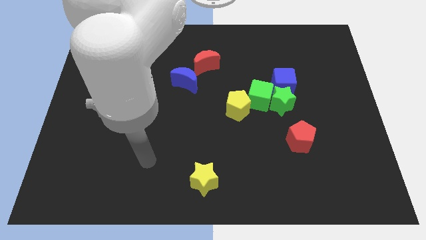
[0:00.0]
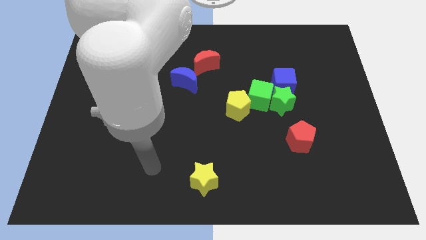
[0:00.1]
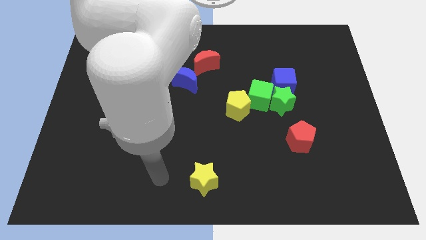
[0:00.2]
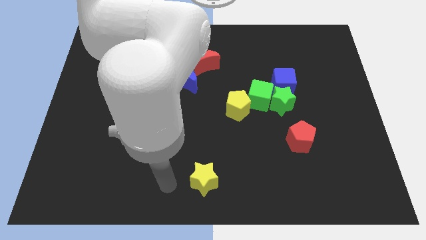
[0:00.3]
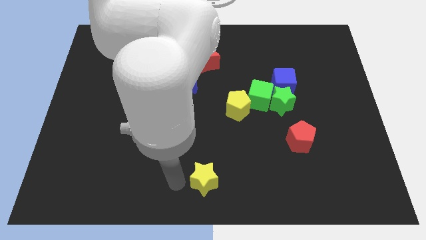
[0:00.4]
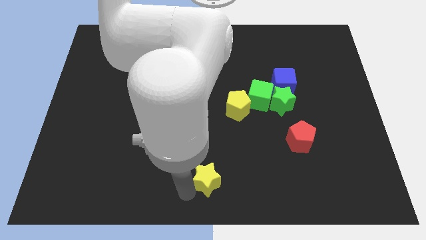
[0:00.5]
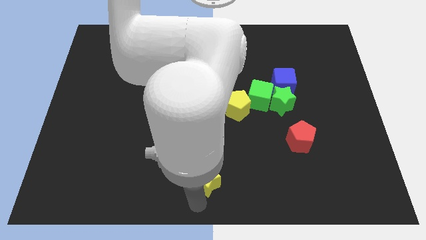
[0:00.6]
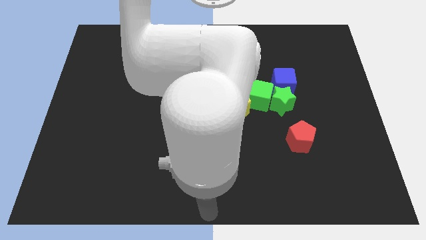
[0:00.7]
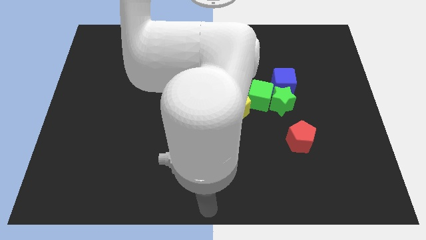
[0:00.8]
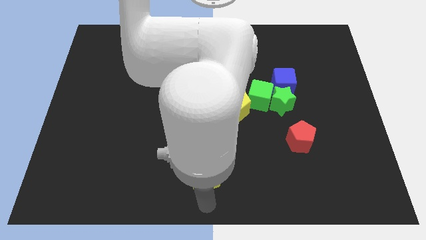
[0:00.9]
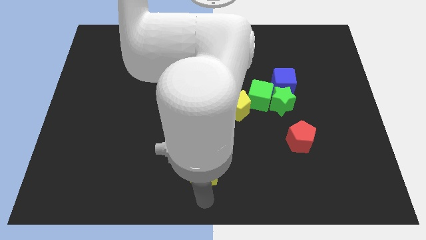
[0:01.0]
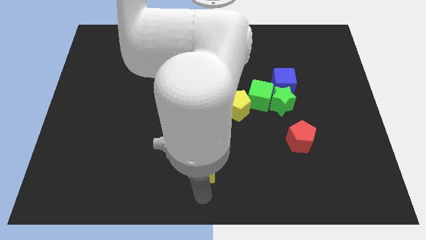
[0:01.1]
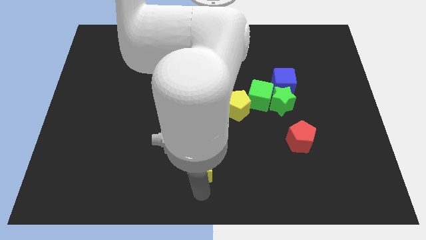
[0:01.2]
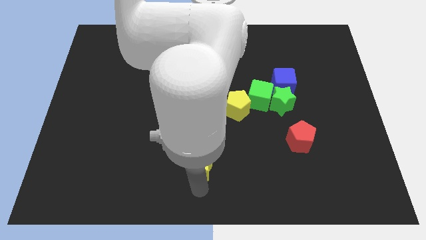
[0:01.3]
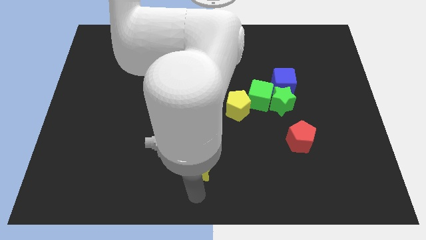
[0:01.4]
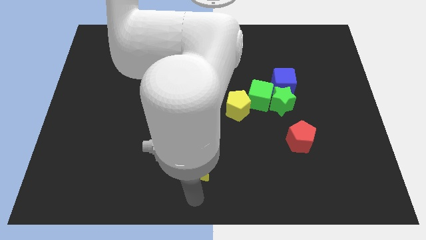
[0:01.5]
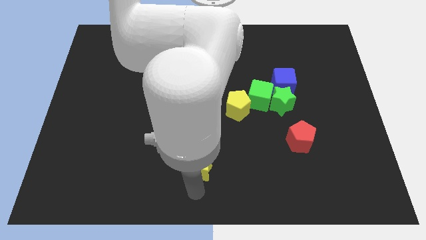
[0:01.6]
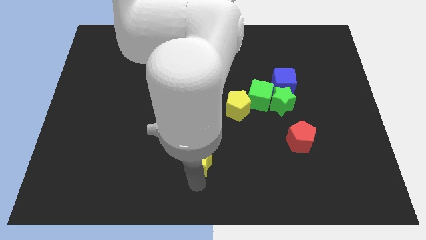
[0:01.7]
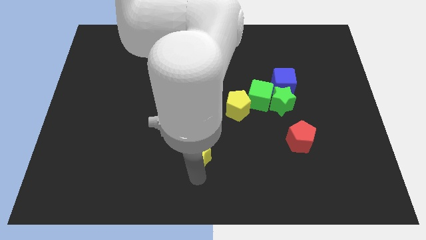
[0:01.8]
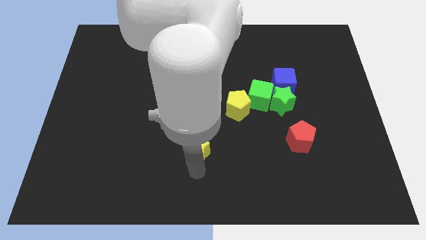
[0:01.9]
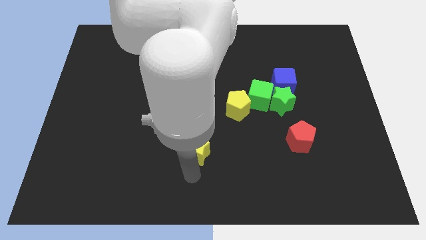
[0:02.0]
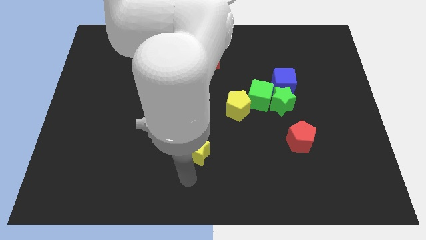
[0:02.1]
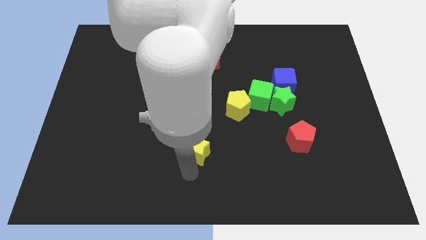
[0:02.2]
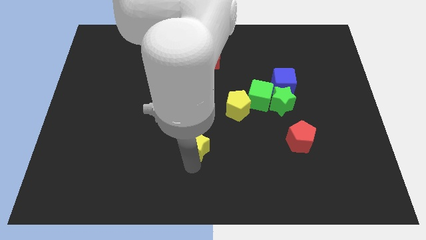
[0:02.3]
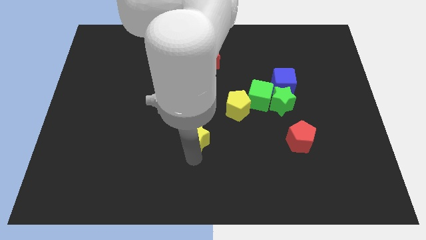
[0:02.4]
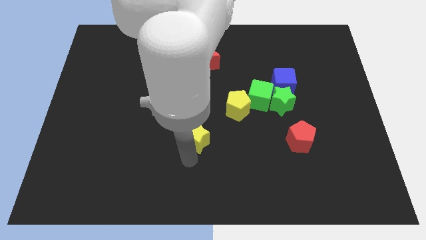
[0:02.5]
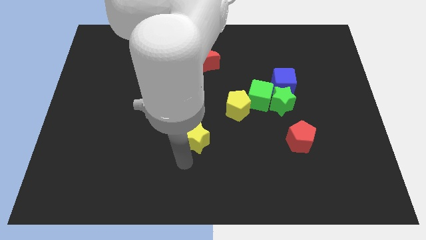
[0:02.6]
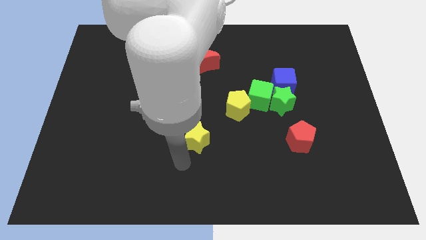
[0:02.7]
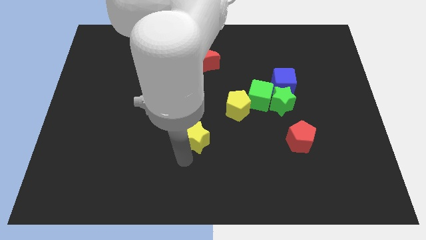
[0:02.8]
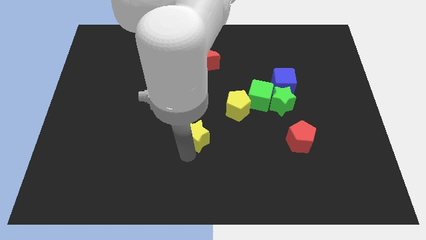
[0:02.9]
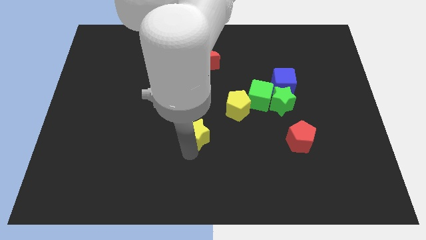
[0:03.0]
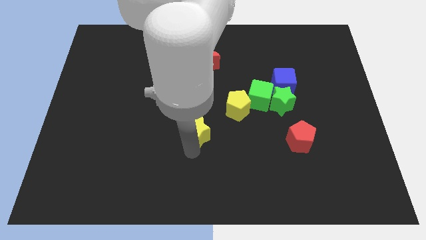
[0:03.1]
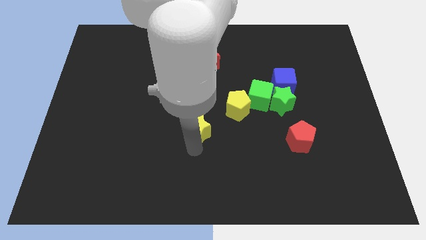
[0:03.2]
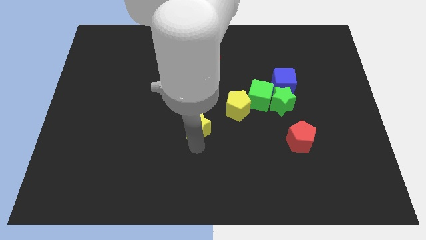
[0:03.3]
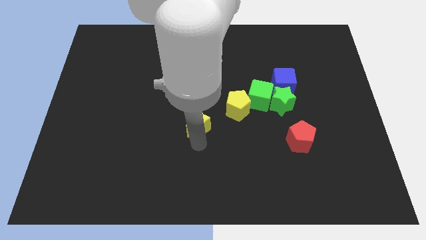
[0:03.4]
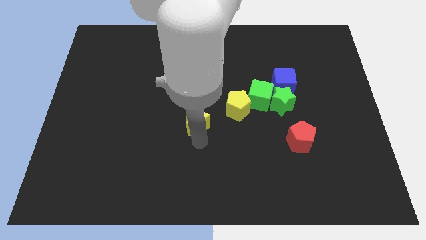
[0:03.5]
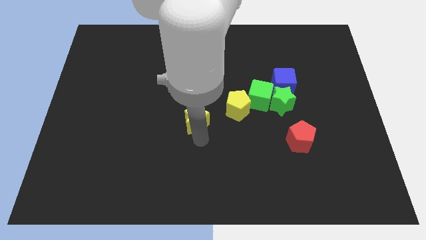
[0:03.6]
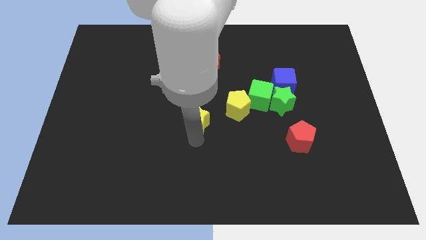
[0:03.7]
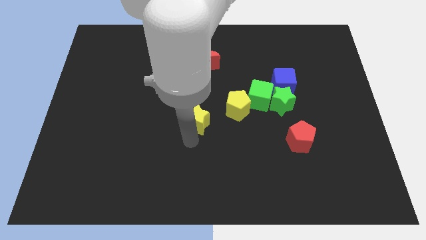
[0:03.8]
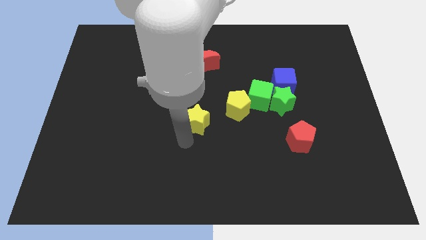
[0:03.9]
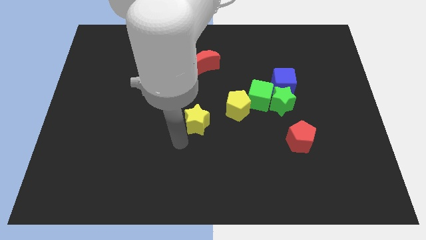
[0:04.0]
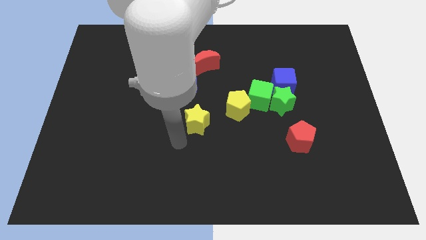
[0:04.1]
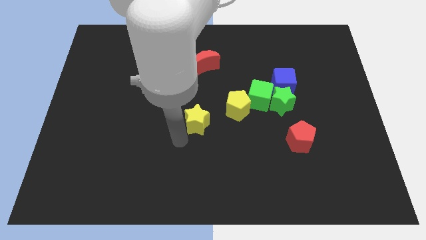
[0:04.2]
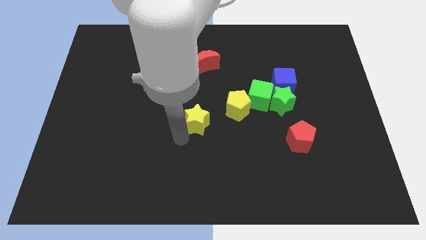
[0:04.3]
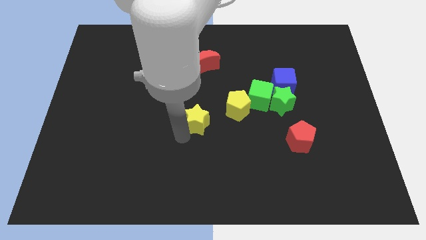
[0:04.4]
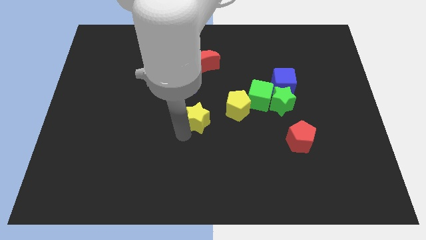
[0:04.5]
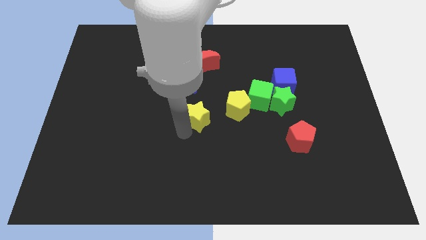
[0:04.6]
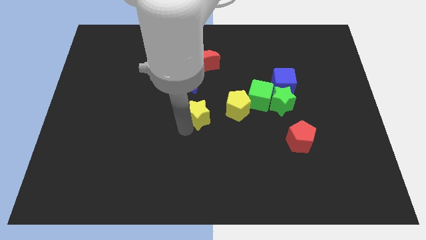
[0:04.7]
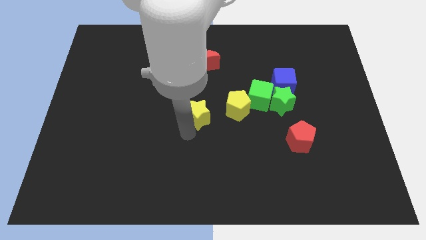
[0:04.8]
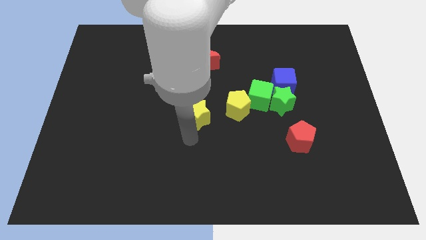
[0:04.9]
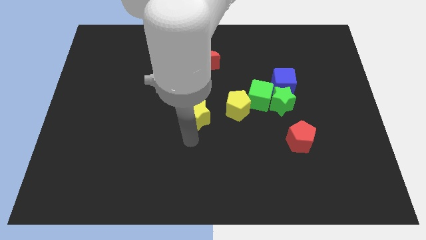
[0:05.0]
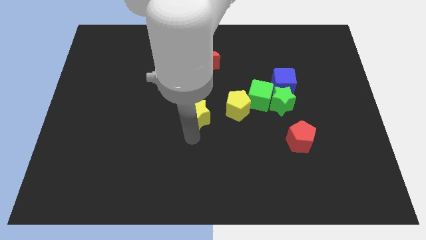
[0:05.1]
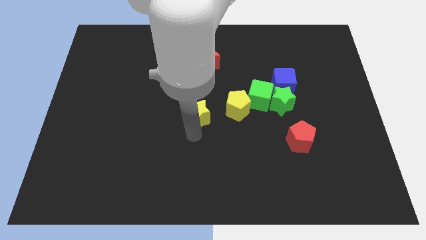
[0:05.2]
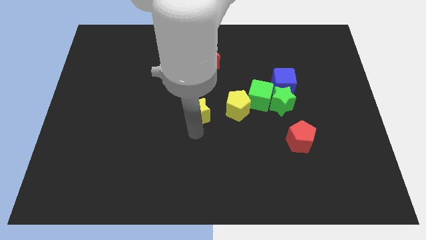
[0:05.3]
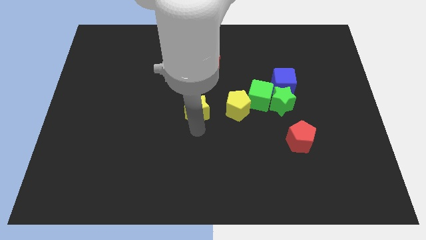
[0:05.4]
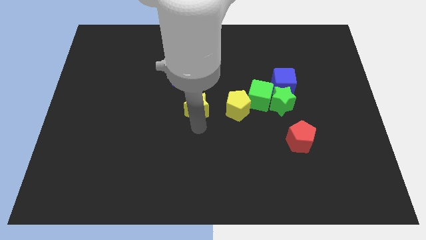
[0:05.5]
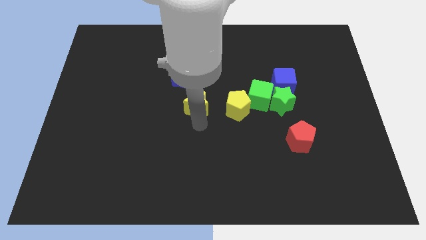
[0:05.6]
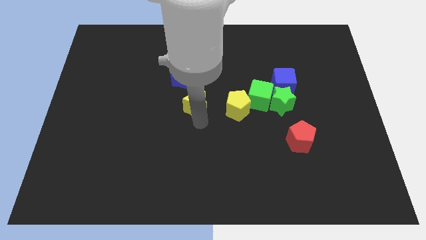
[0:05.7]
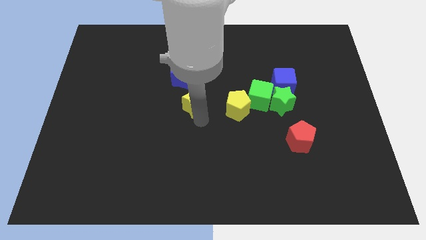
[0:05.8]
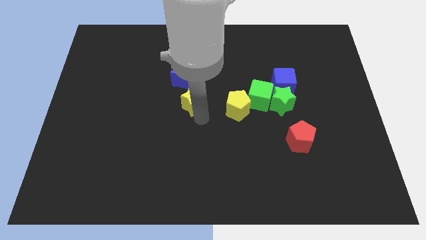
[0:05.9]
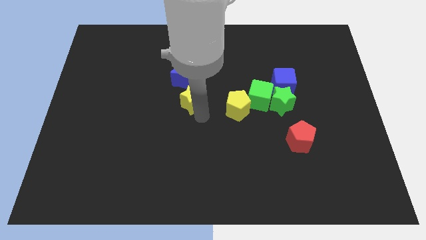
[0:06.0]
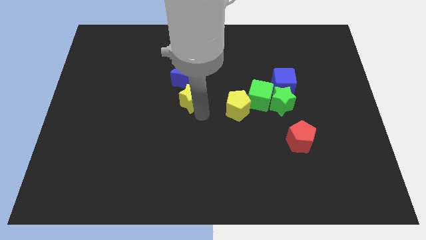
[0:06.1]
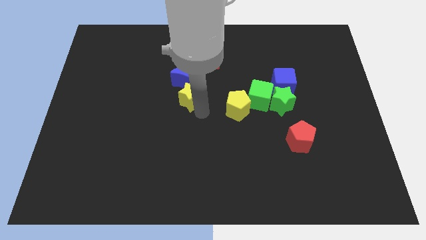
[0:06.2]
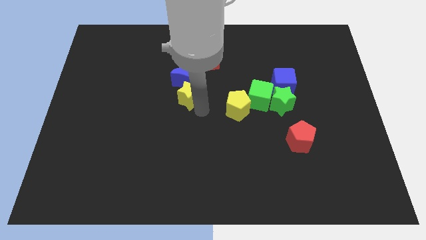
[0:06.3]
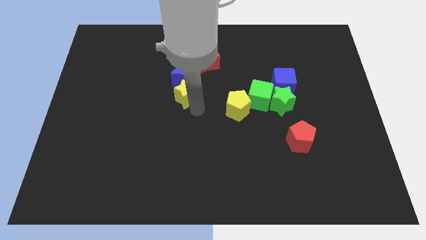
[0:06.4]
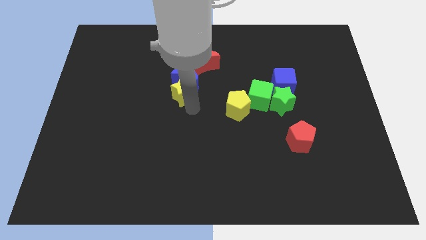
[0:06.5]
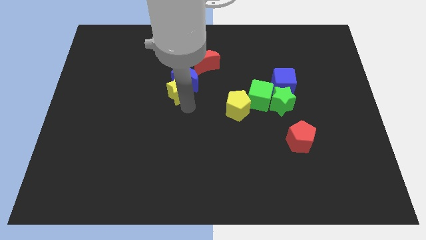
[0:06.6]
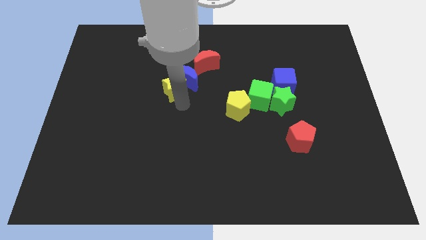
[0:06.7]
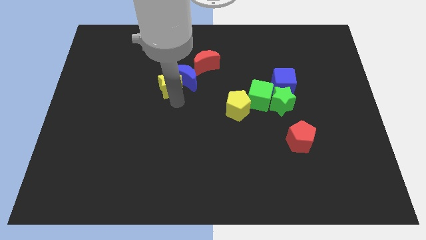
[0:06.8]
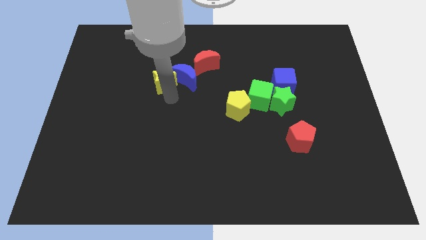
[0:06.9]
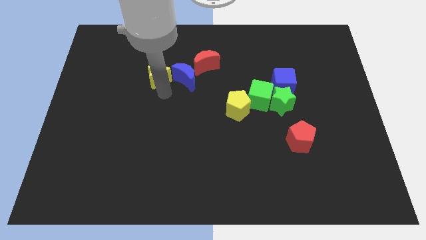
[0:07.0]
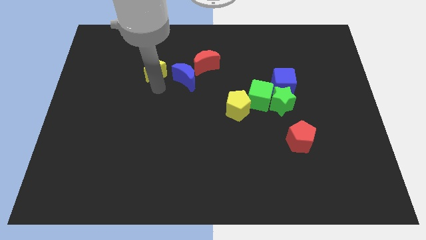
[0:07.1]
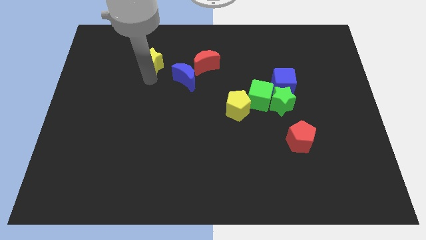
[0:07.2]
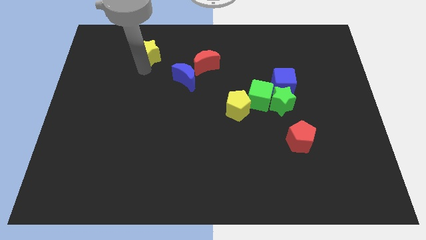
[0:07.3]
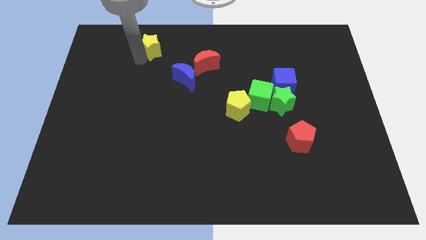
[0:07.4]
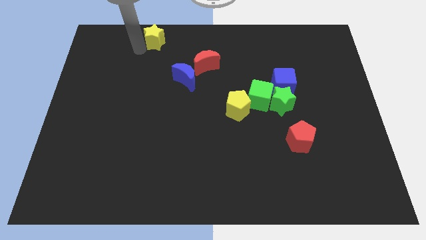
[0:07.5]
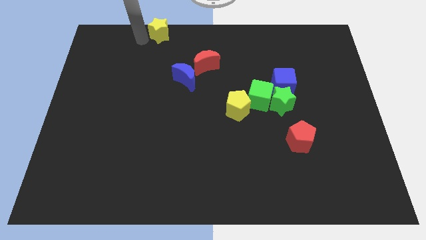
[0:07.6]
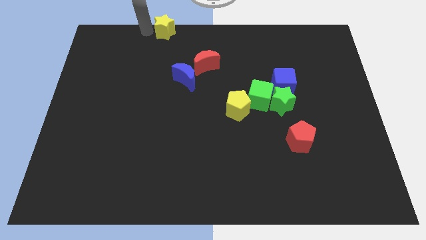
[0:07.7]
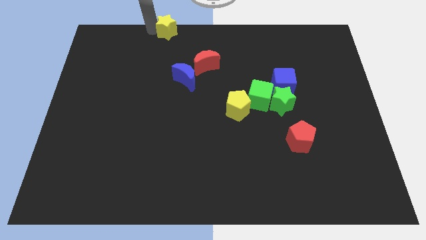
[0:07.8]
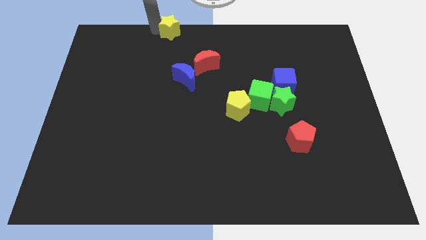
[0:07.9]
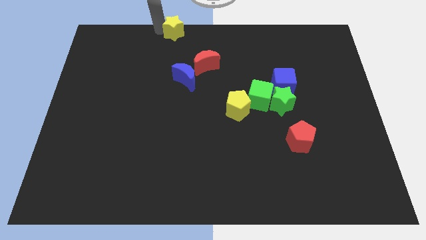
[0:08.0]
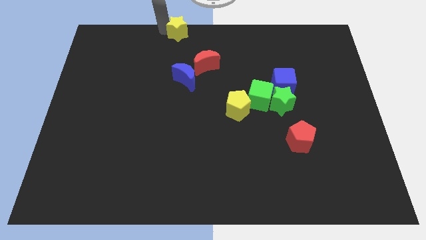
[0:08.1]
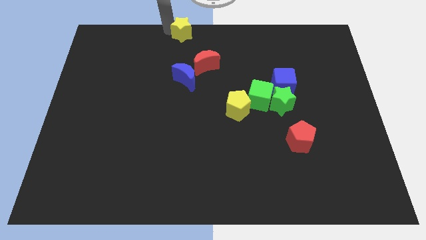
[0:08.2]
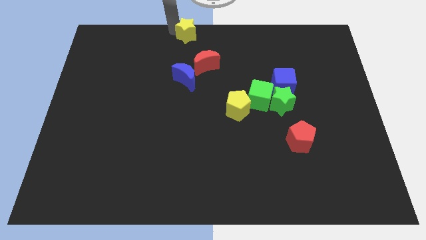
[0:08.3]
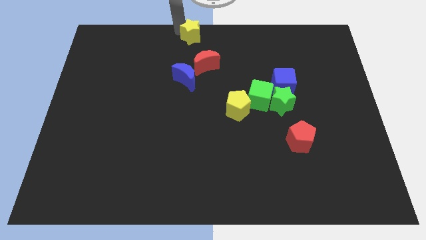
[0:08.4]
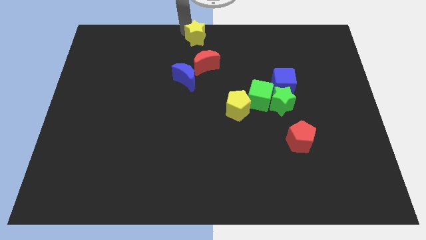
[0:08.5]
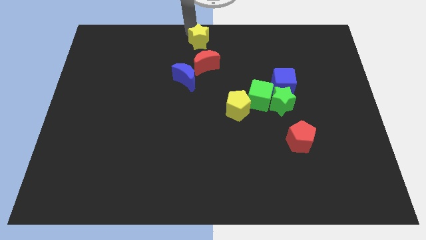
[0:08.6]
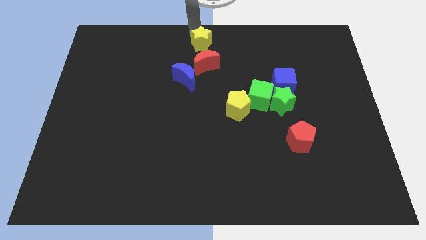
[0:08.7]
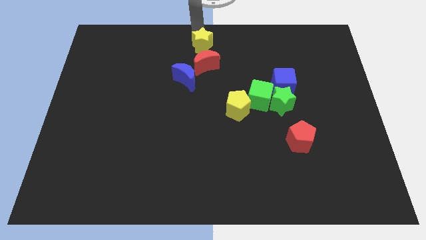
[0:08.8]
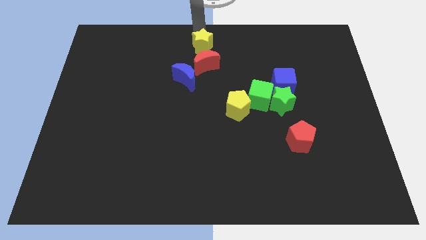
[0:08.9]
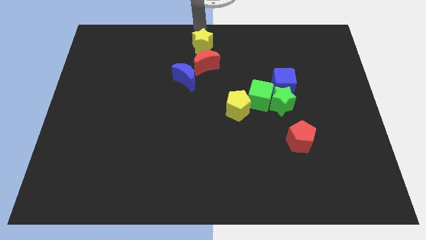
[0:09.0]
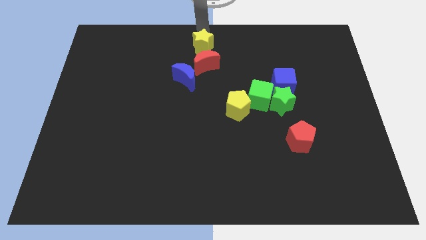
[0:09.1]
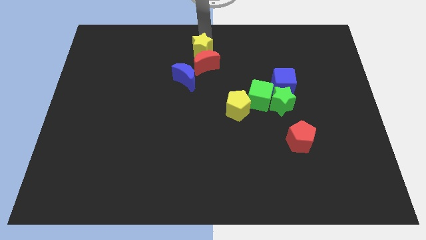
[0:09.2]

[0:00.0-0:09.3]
push the yellow star close to the red moon
